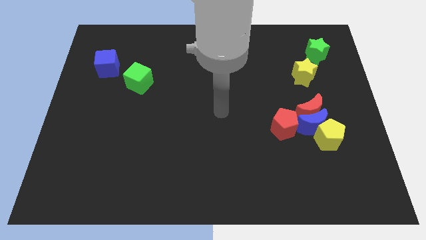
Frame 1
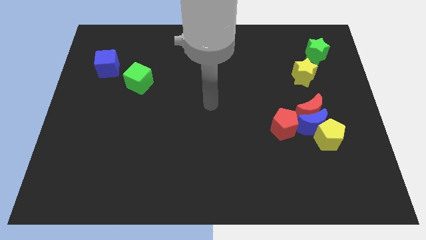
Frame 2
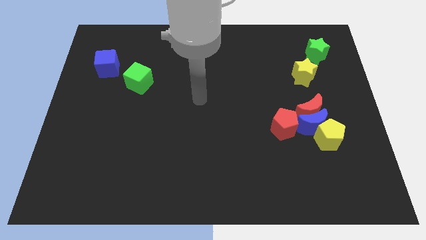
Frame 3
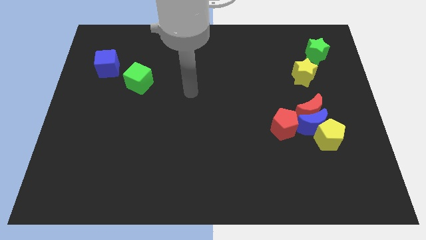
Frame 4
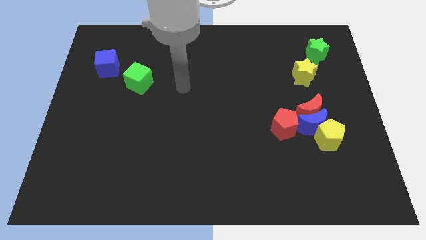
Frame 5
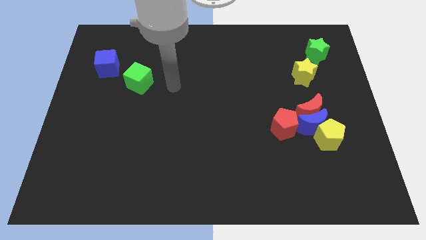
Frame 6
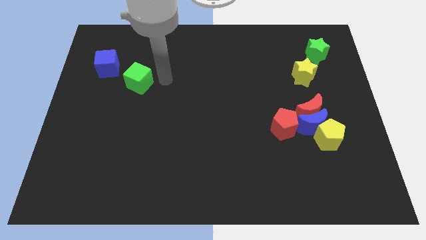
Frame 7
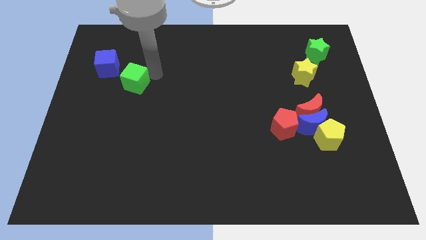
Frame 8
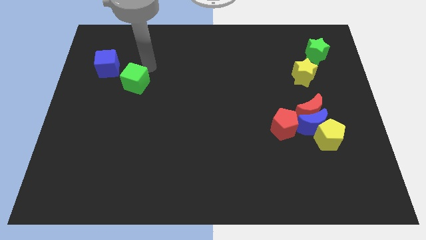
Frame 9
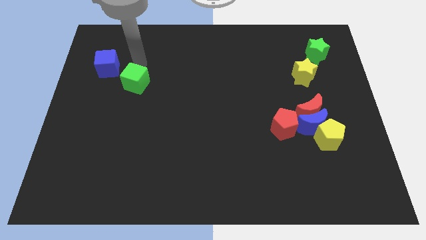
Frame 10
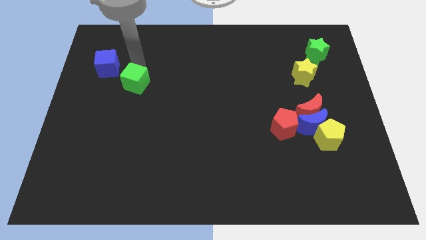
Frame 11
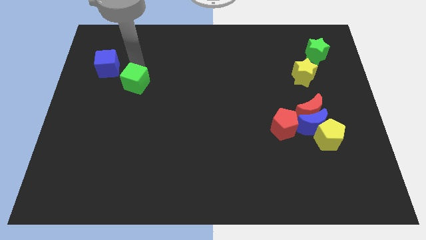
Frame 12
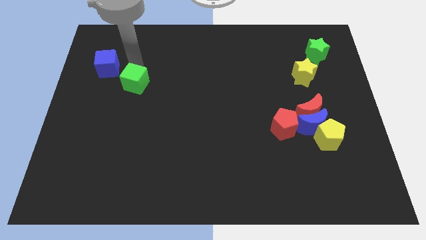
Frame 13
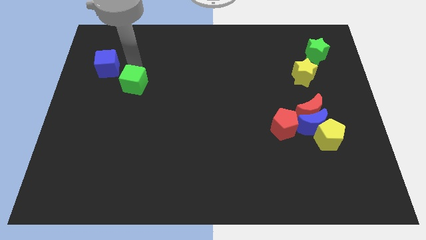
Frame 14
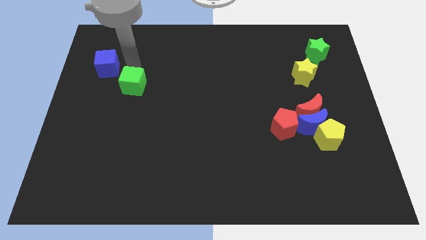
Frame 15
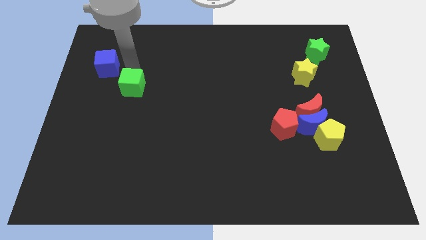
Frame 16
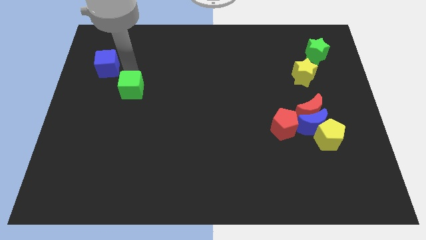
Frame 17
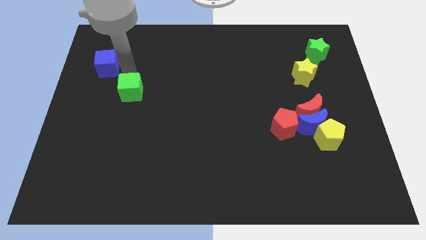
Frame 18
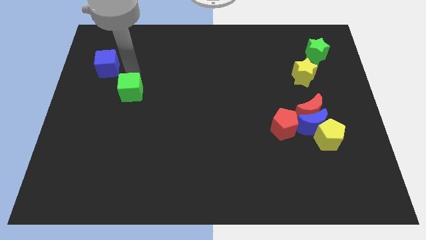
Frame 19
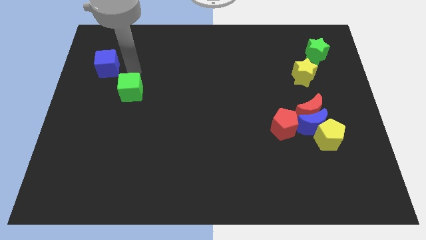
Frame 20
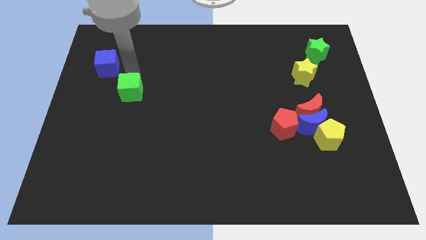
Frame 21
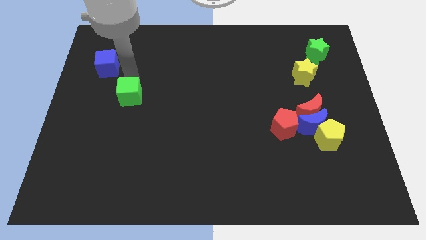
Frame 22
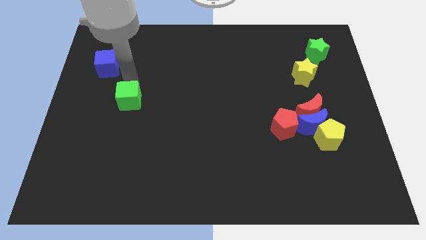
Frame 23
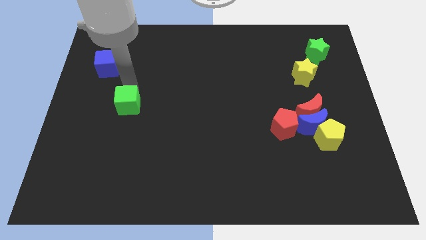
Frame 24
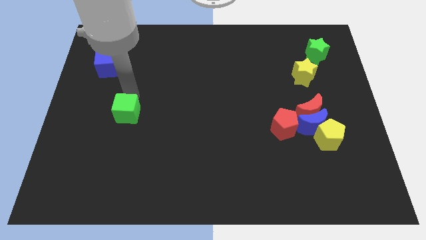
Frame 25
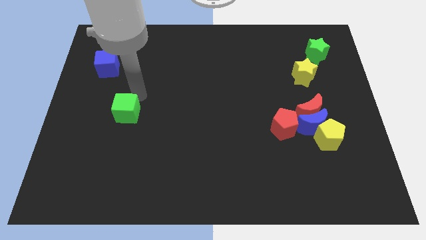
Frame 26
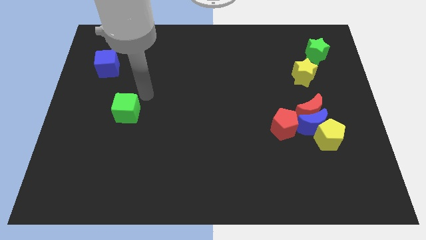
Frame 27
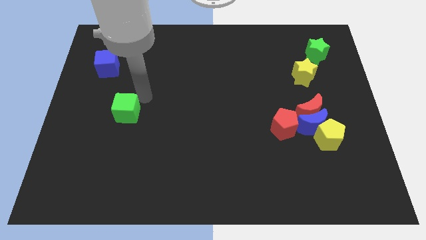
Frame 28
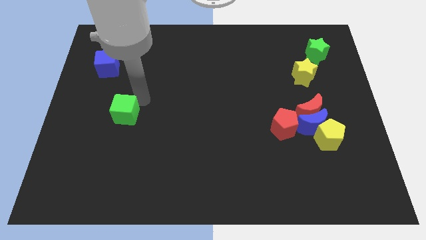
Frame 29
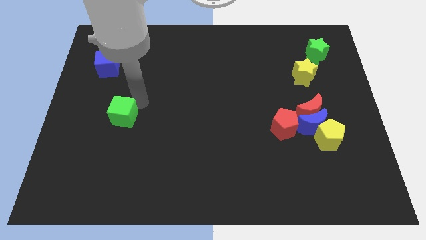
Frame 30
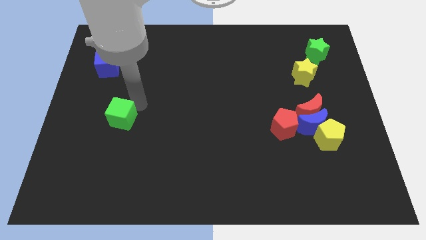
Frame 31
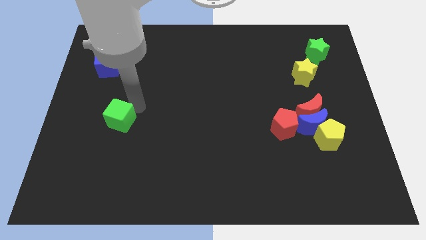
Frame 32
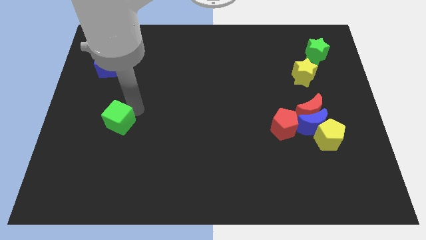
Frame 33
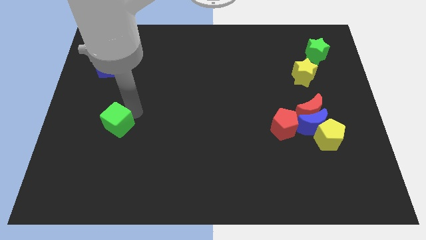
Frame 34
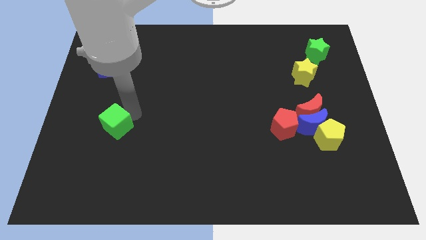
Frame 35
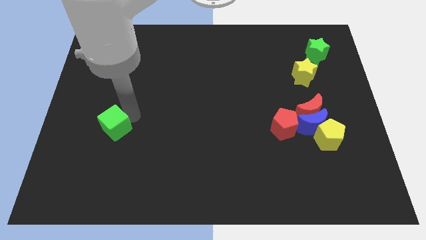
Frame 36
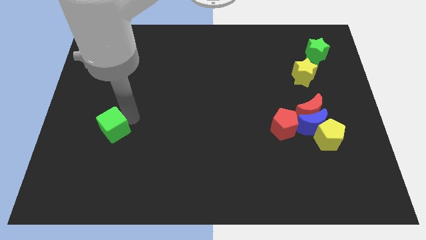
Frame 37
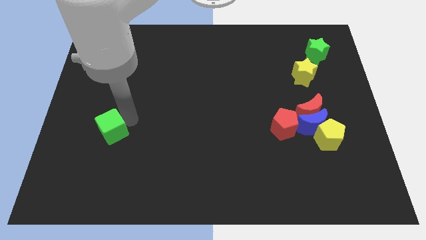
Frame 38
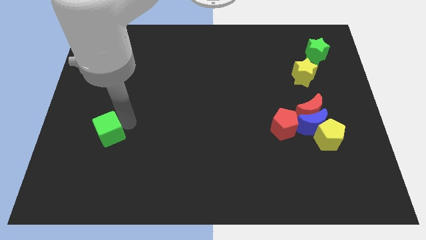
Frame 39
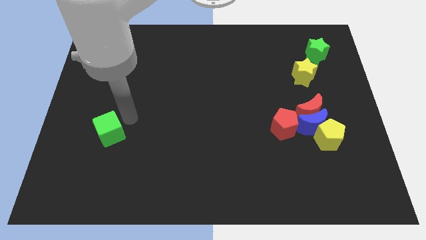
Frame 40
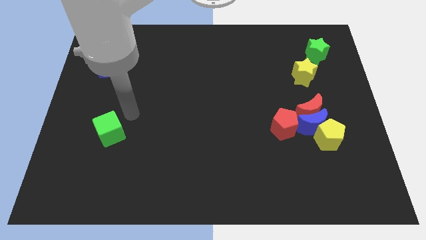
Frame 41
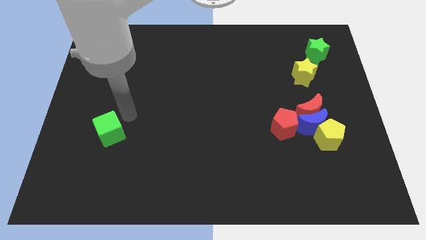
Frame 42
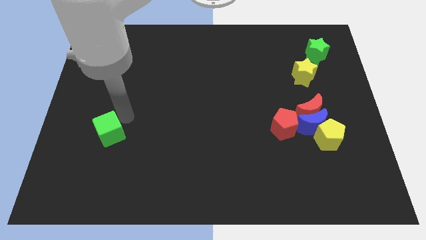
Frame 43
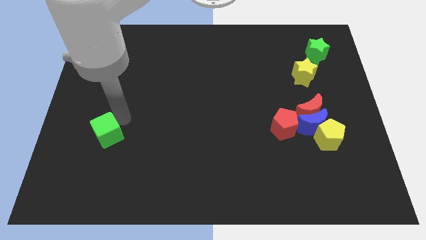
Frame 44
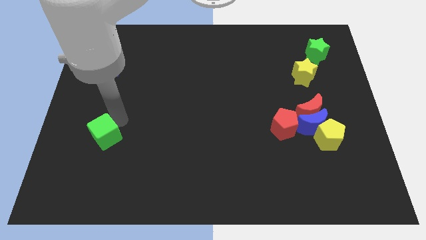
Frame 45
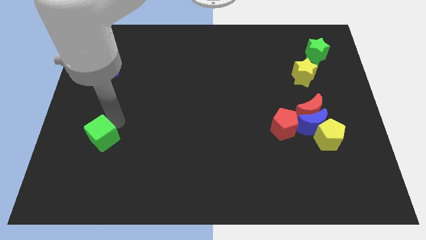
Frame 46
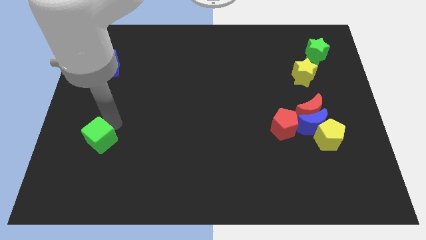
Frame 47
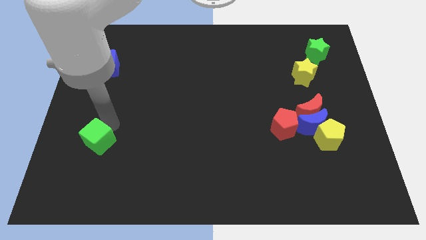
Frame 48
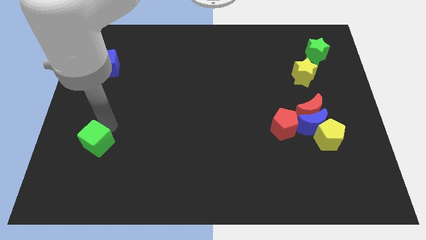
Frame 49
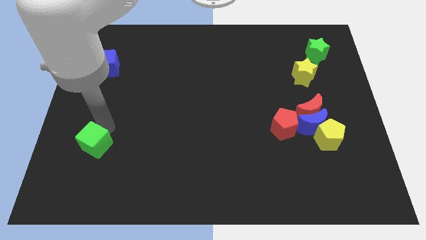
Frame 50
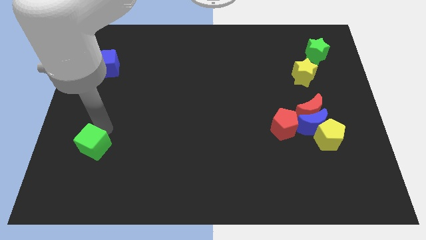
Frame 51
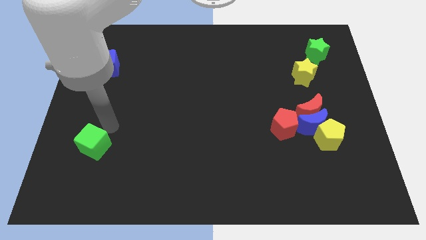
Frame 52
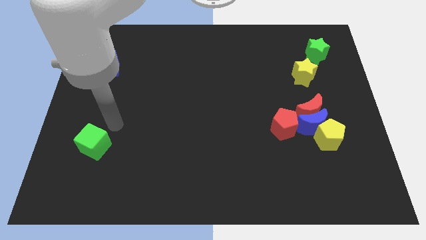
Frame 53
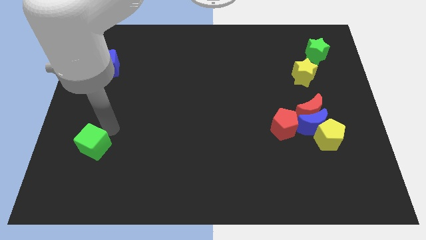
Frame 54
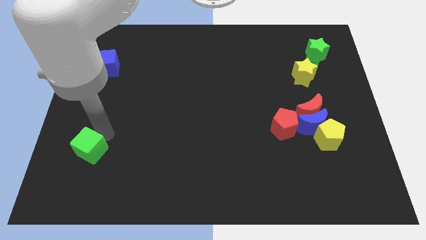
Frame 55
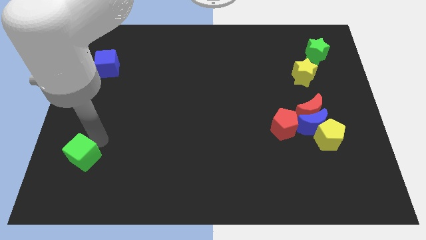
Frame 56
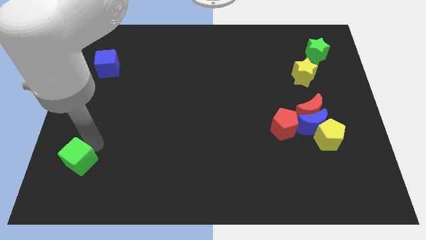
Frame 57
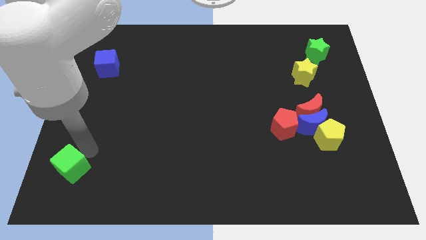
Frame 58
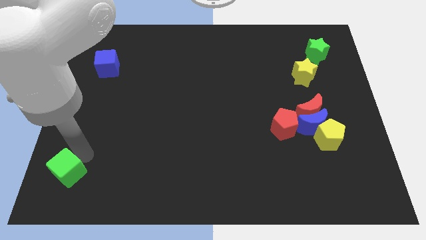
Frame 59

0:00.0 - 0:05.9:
put the green cube to the lower left corner

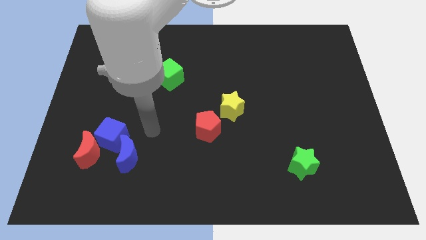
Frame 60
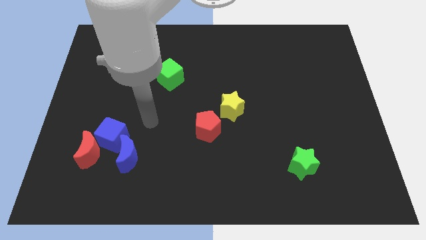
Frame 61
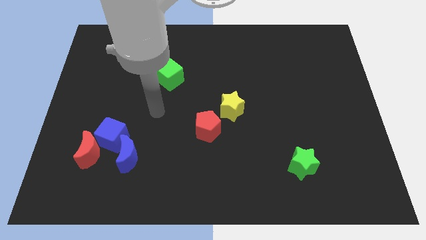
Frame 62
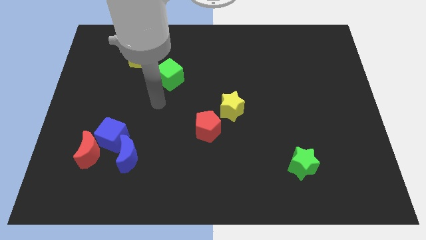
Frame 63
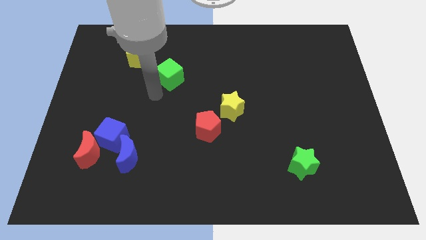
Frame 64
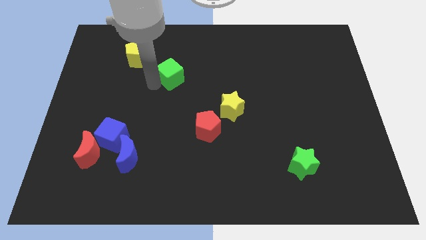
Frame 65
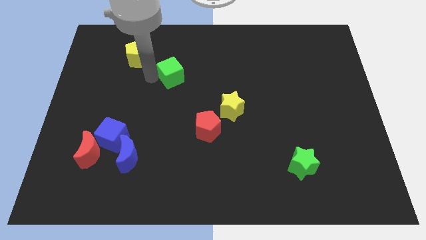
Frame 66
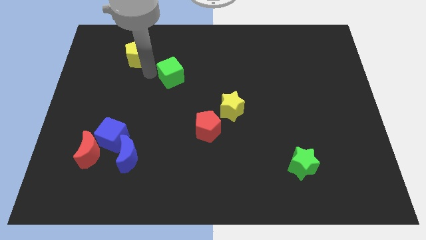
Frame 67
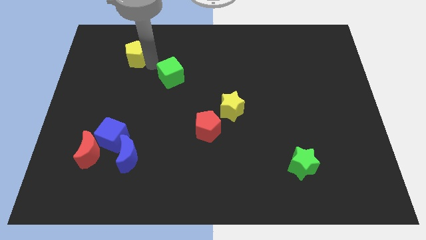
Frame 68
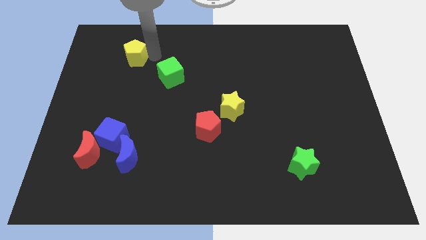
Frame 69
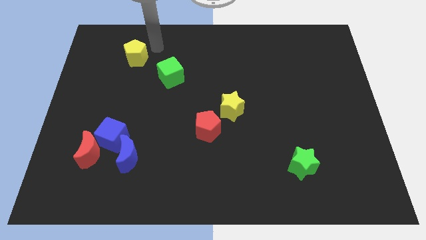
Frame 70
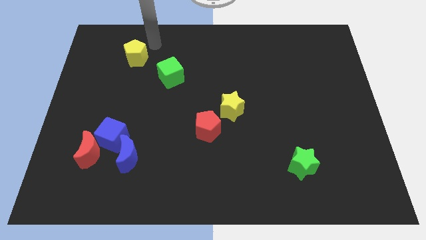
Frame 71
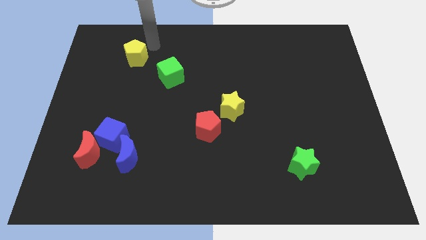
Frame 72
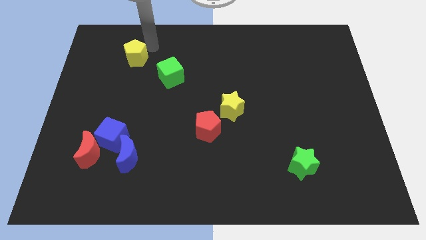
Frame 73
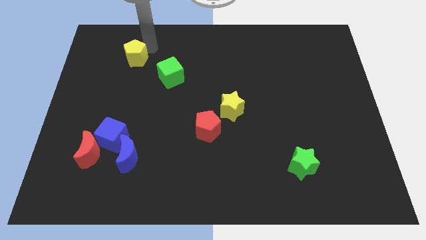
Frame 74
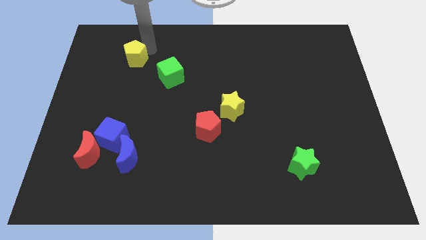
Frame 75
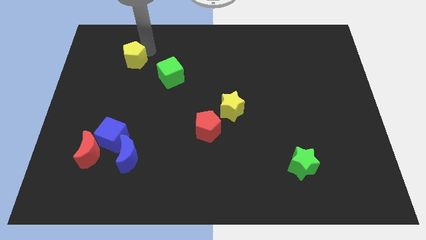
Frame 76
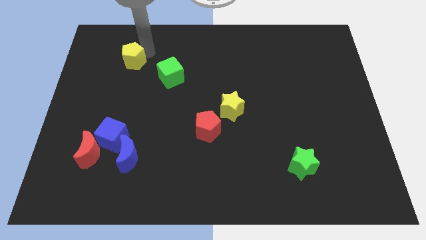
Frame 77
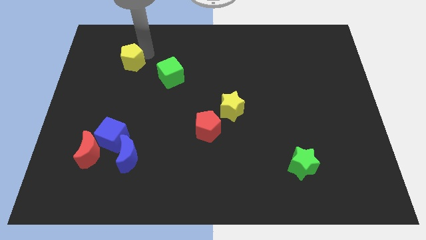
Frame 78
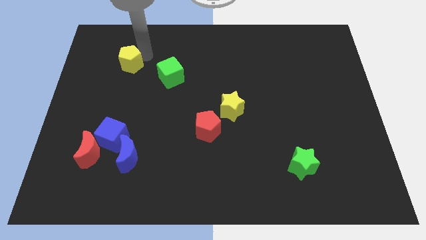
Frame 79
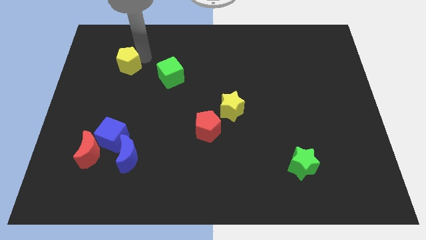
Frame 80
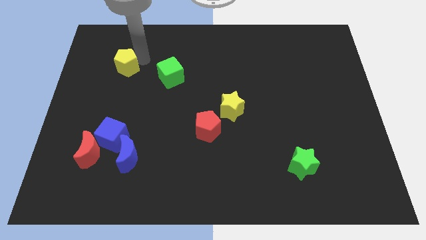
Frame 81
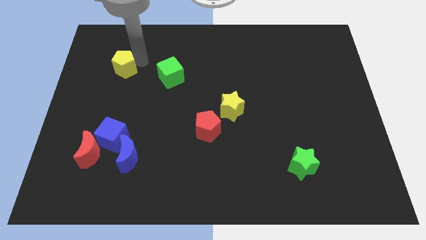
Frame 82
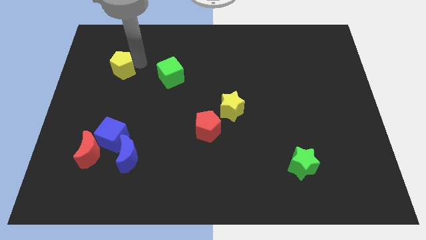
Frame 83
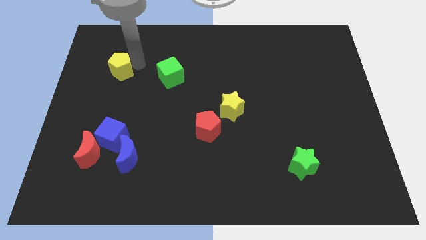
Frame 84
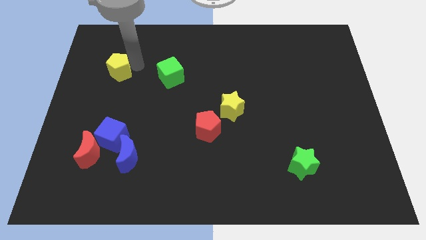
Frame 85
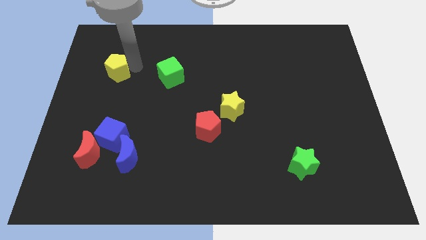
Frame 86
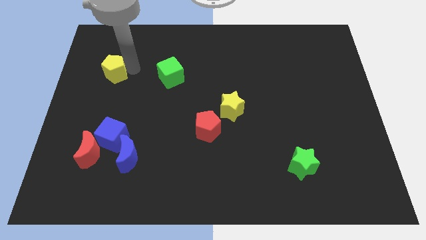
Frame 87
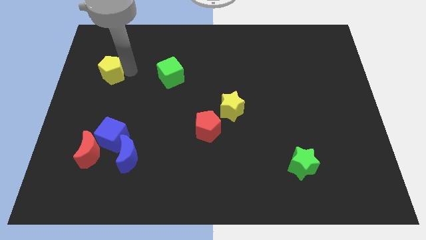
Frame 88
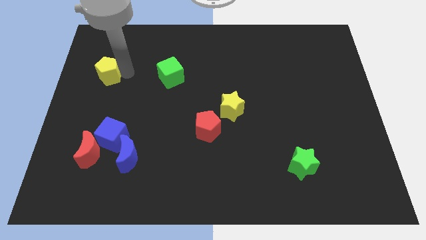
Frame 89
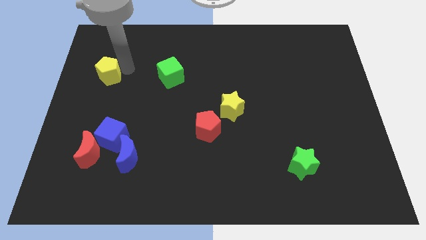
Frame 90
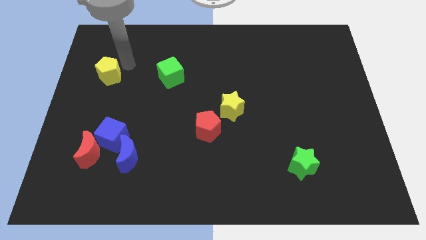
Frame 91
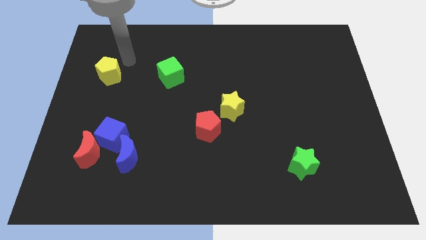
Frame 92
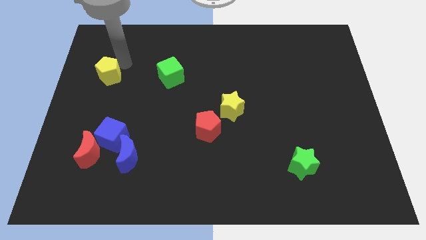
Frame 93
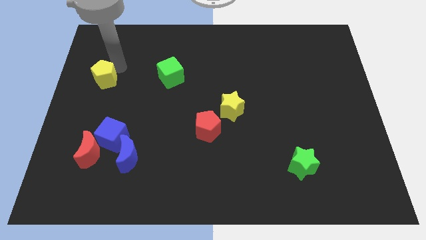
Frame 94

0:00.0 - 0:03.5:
slide the yellow pentagon to the center left
